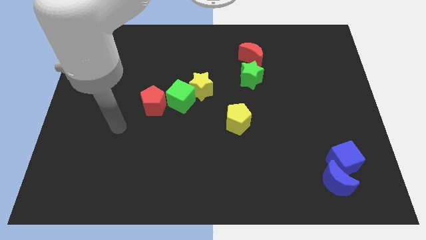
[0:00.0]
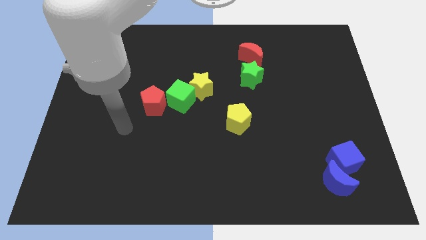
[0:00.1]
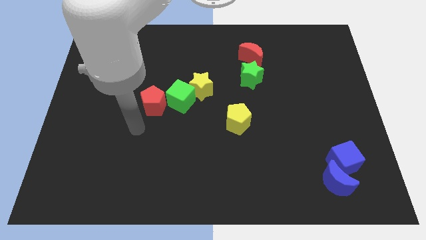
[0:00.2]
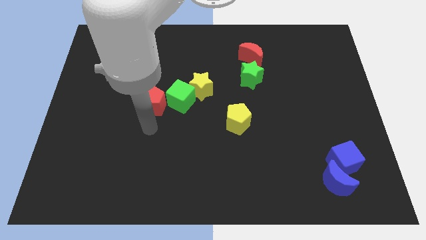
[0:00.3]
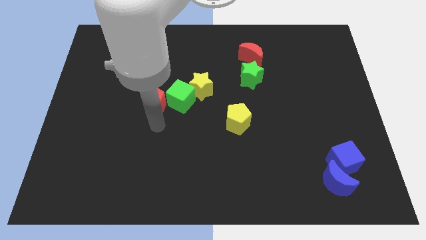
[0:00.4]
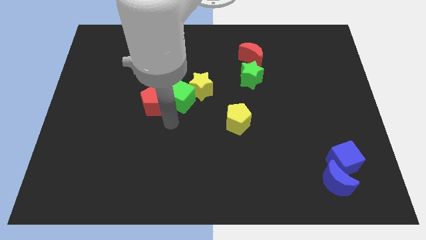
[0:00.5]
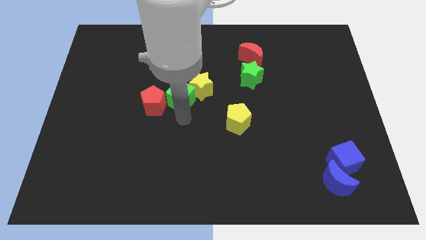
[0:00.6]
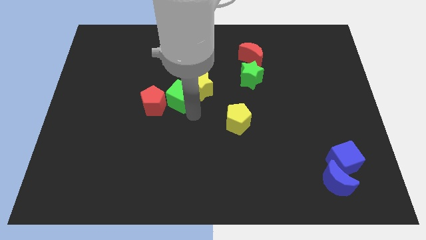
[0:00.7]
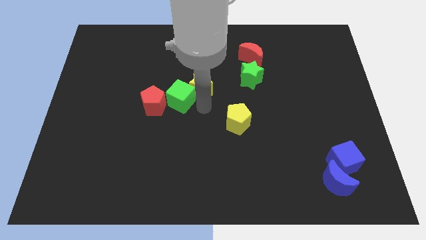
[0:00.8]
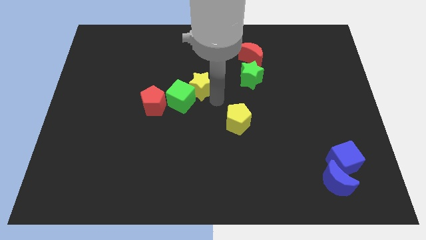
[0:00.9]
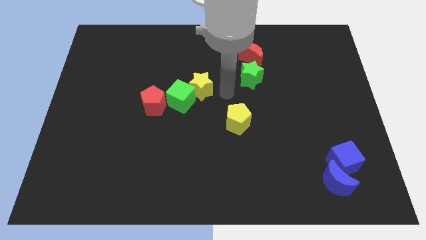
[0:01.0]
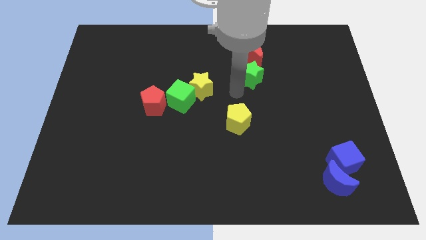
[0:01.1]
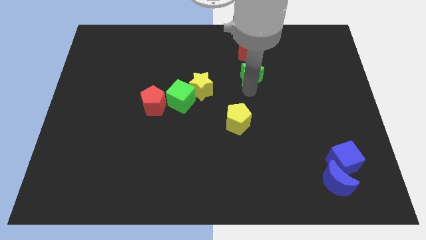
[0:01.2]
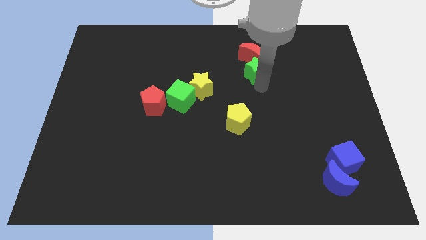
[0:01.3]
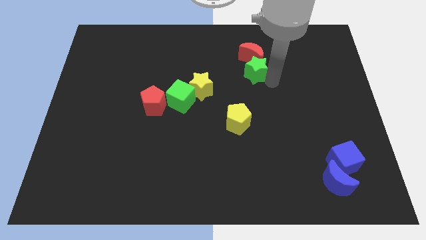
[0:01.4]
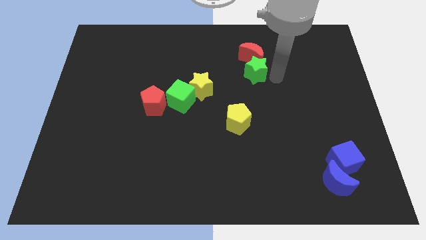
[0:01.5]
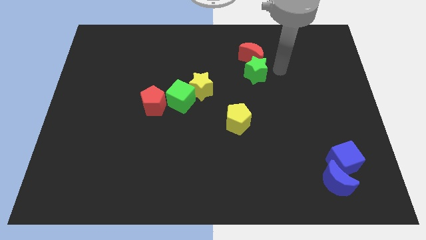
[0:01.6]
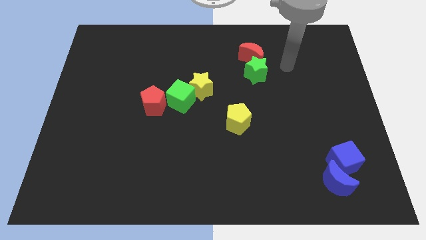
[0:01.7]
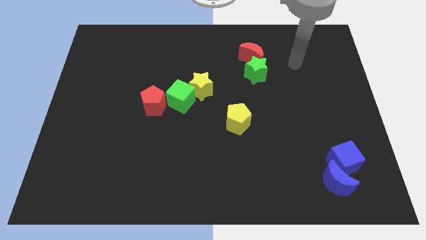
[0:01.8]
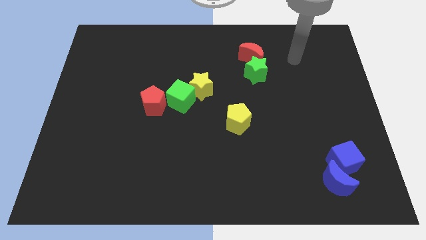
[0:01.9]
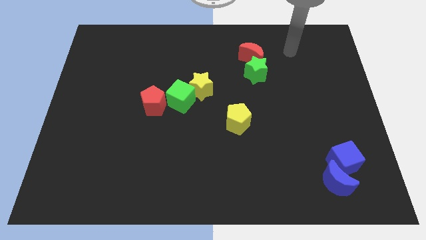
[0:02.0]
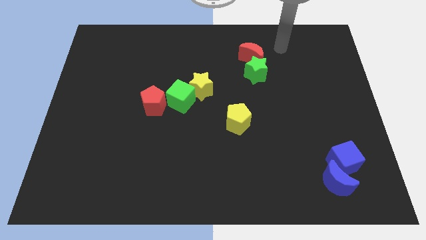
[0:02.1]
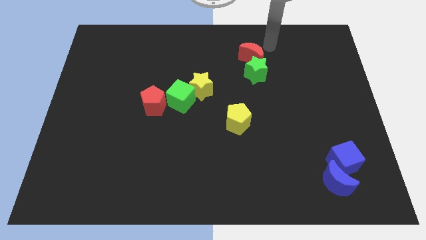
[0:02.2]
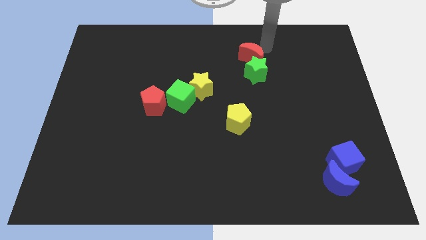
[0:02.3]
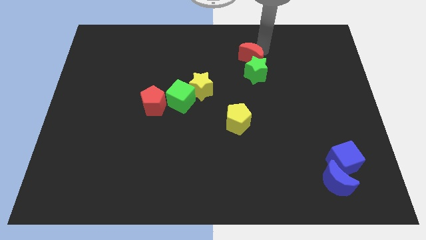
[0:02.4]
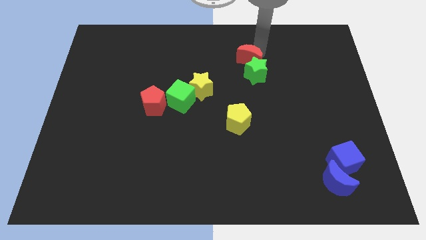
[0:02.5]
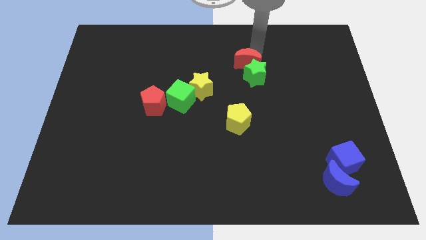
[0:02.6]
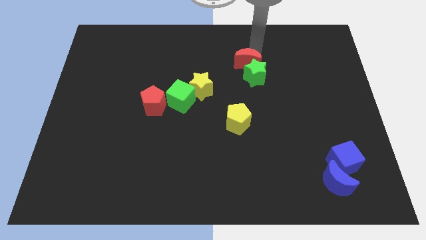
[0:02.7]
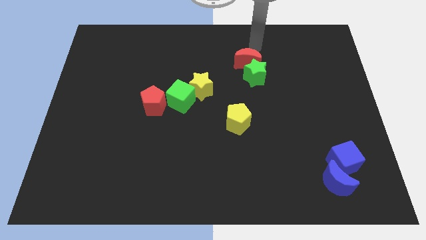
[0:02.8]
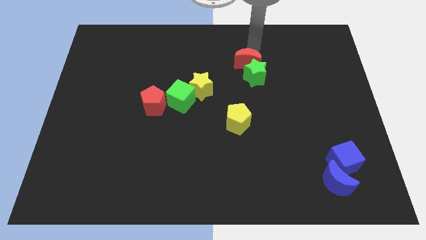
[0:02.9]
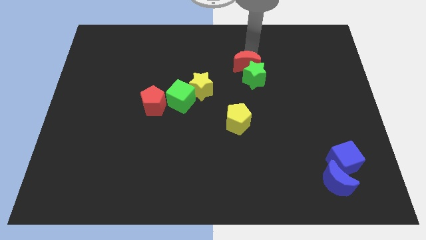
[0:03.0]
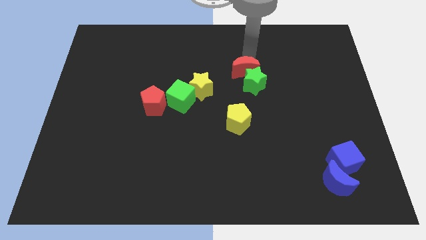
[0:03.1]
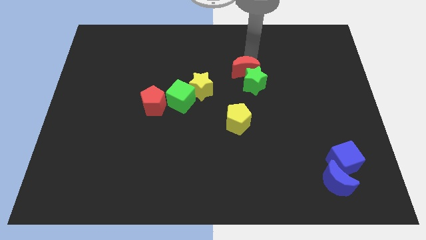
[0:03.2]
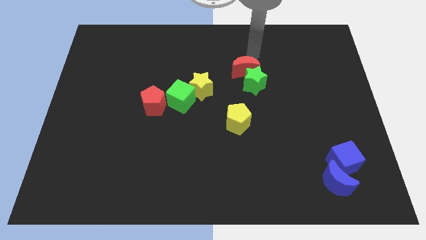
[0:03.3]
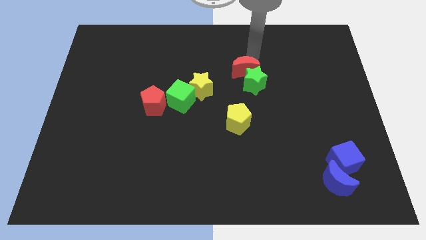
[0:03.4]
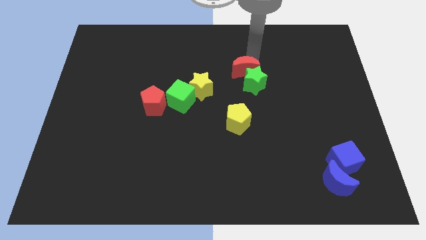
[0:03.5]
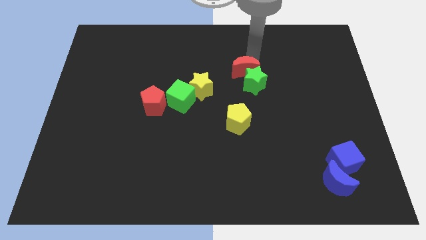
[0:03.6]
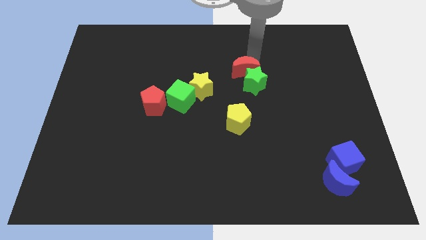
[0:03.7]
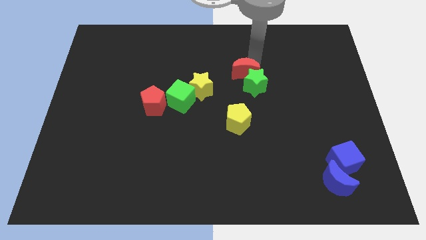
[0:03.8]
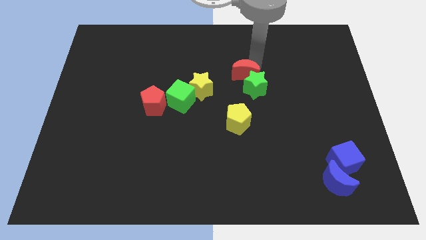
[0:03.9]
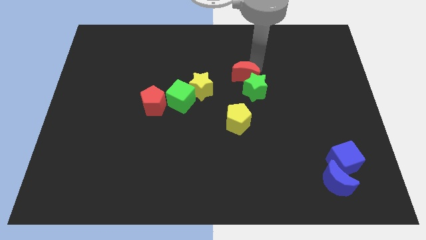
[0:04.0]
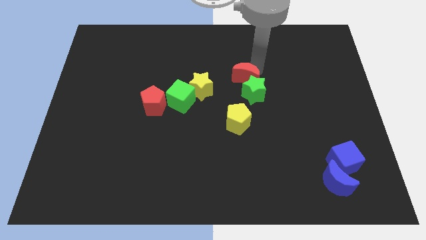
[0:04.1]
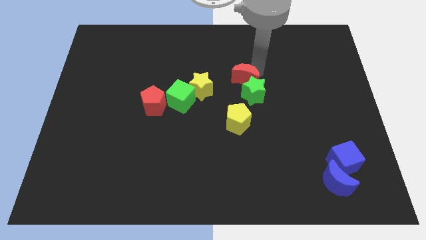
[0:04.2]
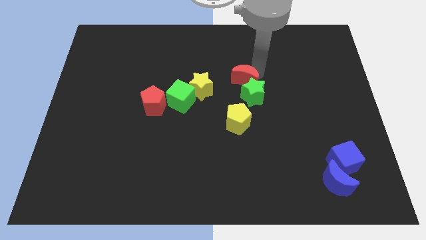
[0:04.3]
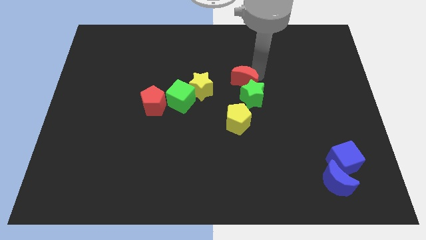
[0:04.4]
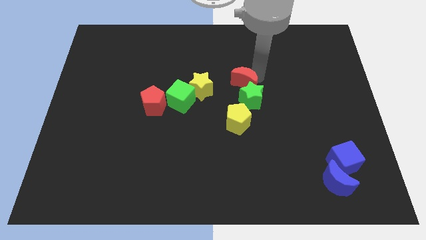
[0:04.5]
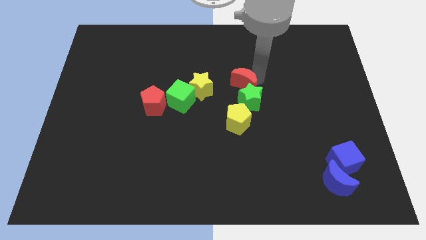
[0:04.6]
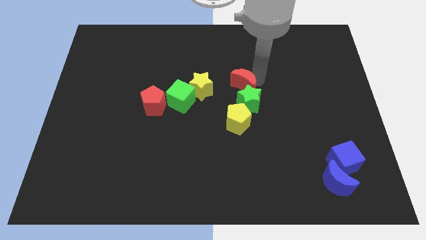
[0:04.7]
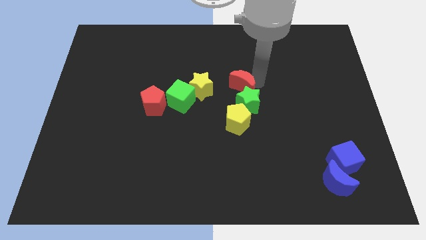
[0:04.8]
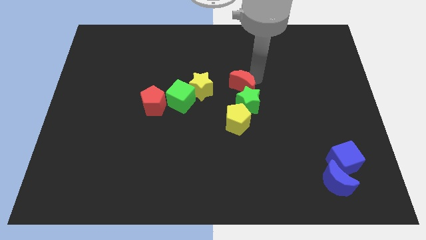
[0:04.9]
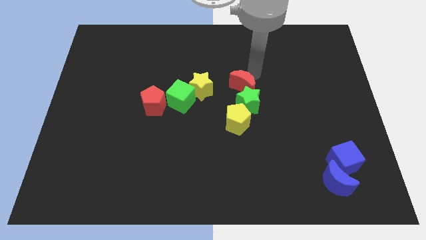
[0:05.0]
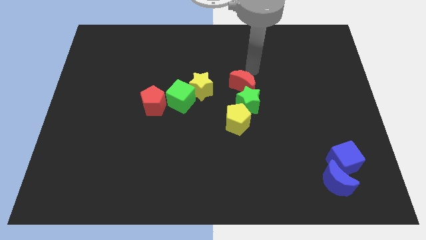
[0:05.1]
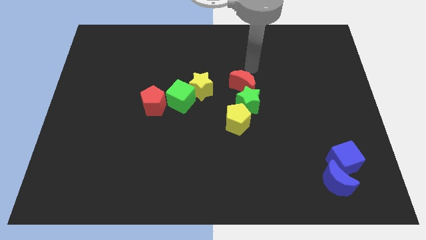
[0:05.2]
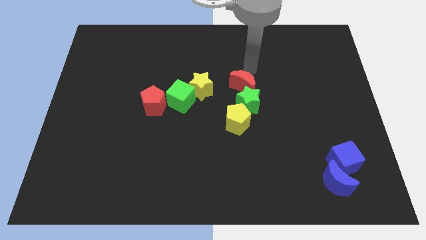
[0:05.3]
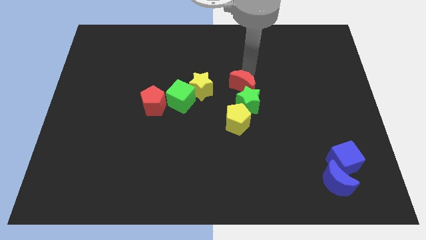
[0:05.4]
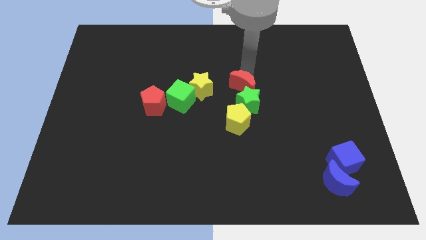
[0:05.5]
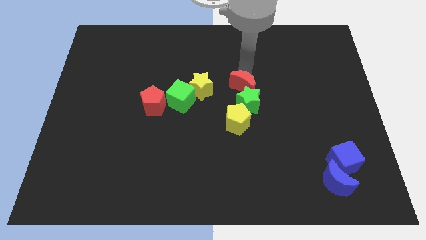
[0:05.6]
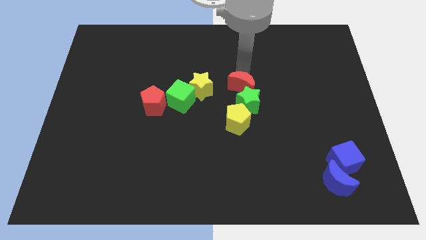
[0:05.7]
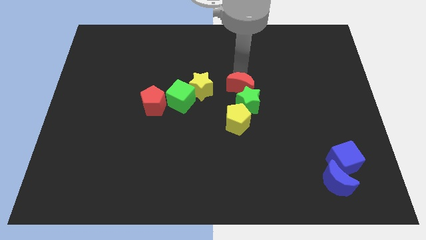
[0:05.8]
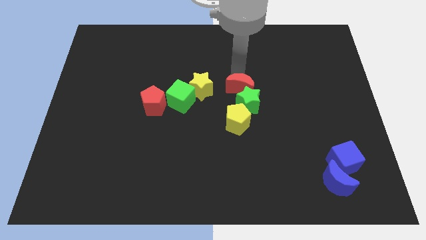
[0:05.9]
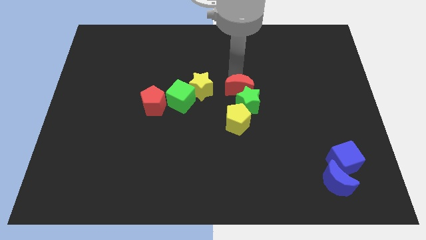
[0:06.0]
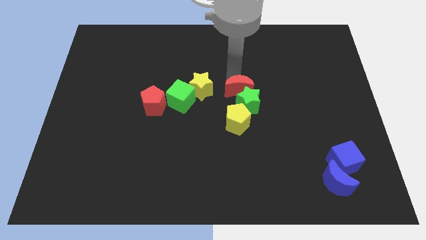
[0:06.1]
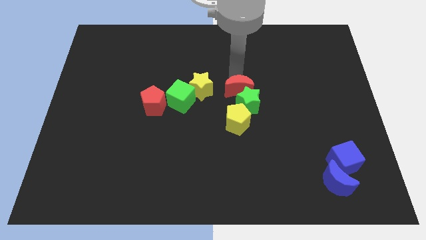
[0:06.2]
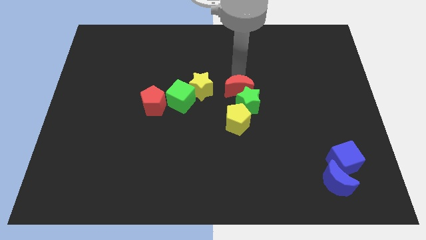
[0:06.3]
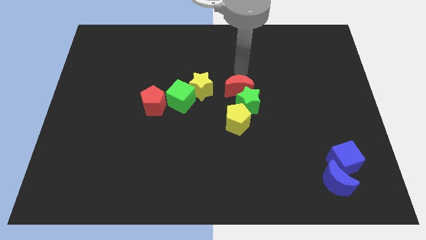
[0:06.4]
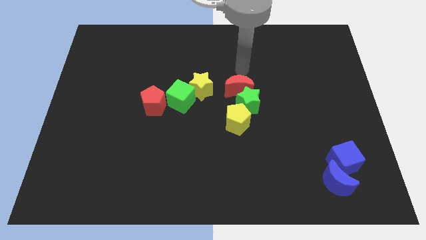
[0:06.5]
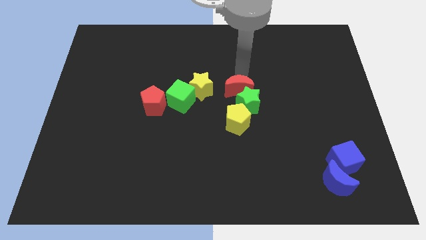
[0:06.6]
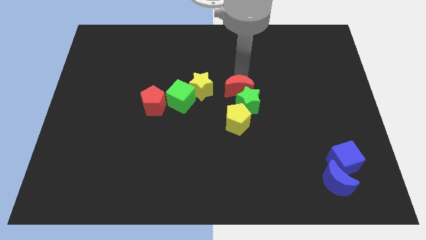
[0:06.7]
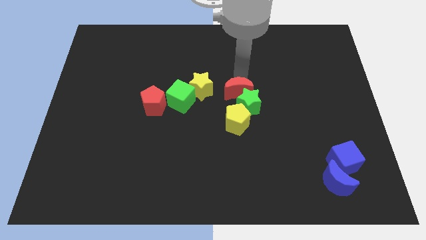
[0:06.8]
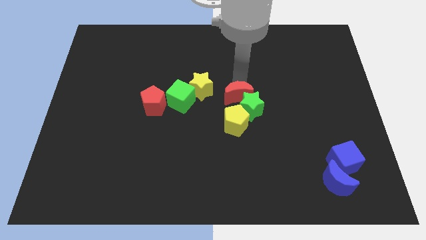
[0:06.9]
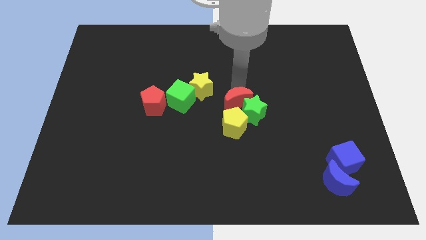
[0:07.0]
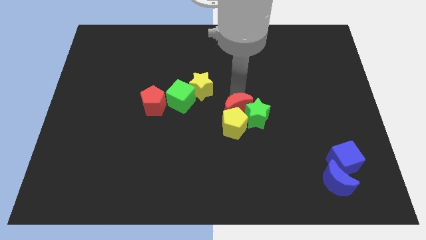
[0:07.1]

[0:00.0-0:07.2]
slide the red moon to the yellow pentagon

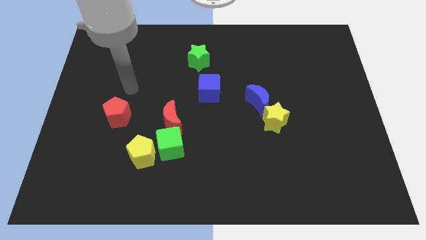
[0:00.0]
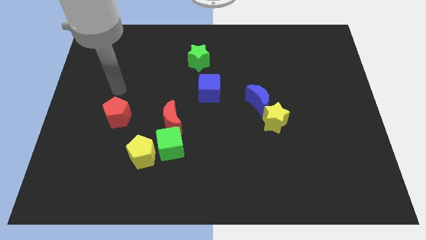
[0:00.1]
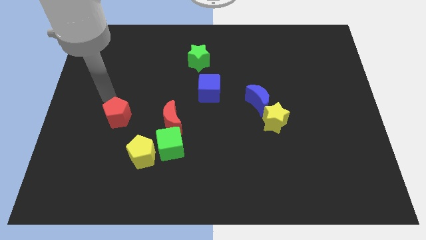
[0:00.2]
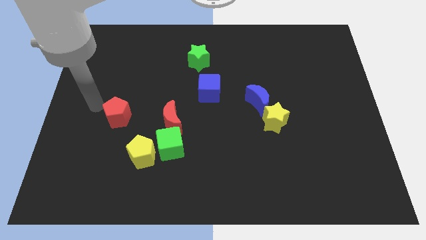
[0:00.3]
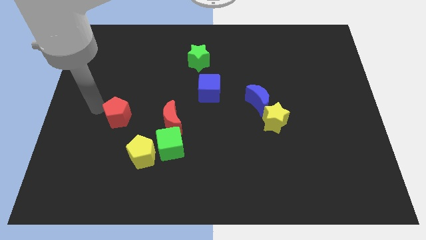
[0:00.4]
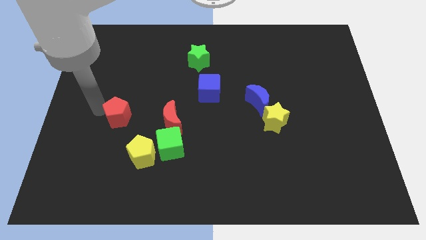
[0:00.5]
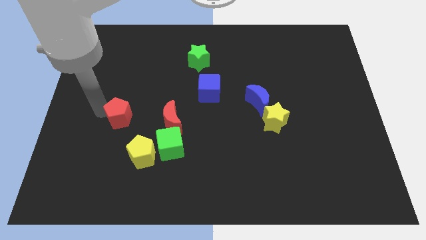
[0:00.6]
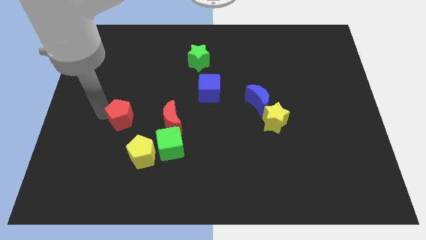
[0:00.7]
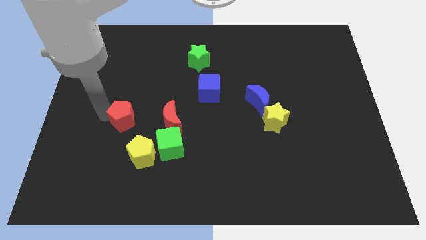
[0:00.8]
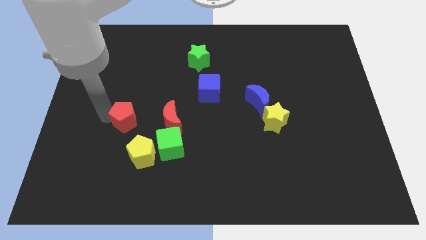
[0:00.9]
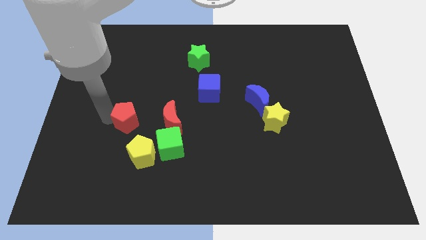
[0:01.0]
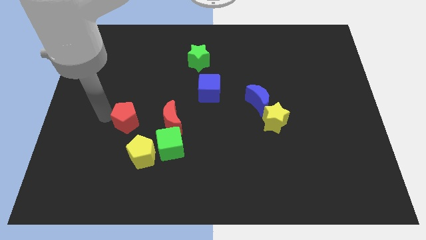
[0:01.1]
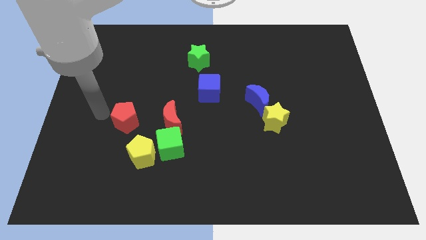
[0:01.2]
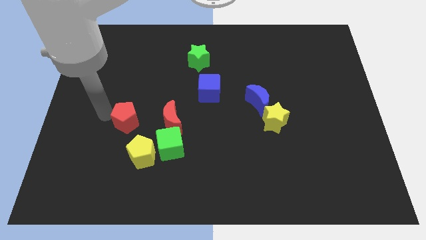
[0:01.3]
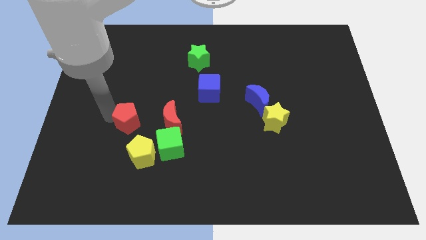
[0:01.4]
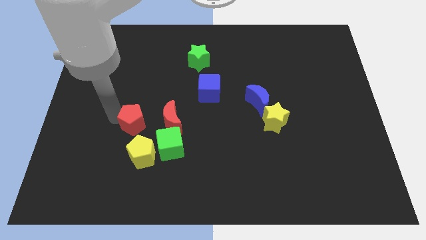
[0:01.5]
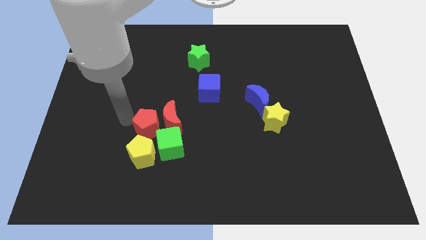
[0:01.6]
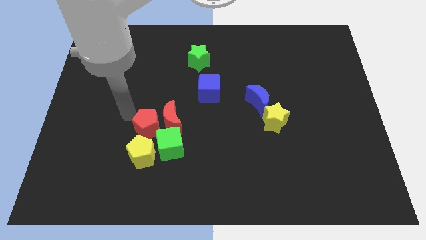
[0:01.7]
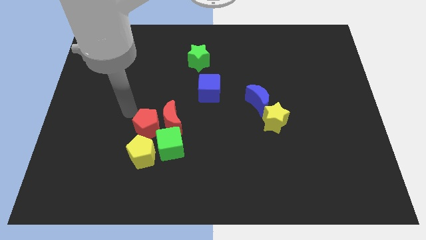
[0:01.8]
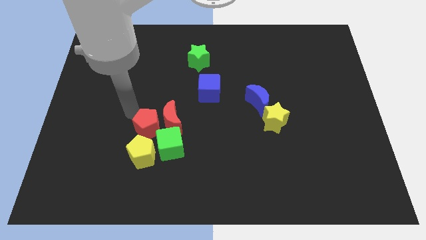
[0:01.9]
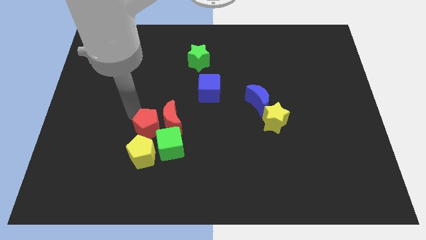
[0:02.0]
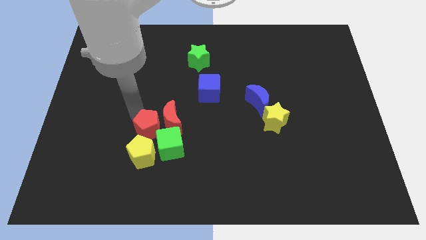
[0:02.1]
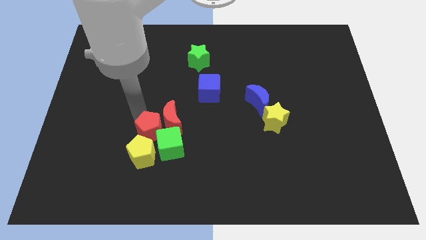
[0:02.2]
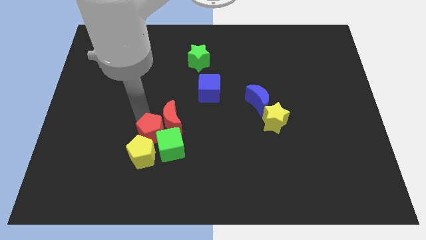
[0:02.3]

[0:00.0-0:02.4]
push the red pentagon next to the green cube
